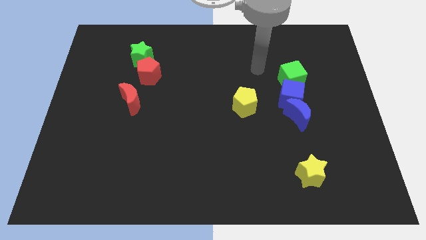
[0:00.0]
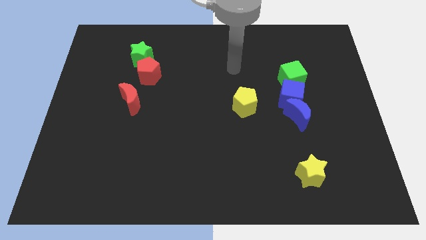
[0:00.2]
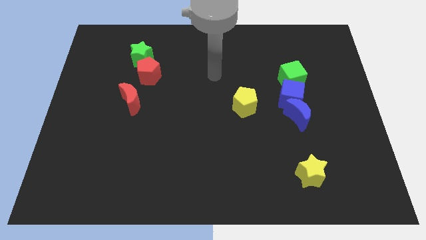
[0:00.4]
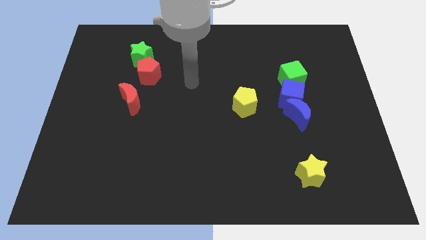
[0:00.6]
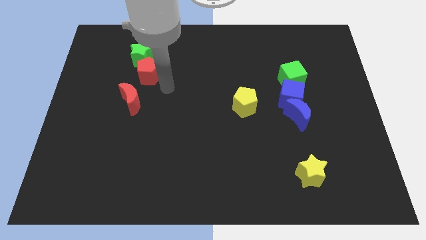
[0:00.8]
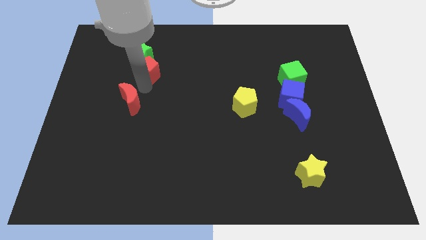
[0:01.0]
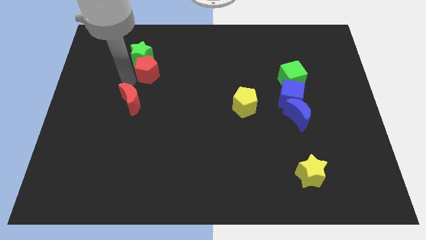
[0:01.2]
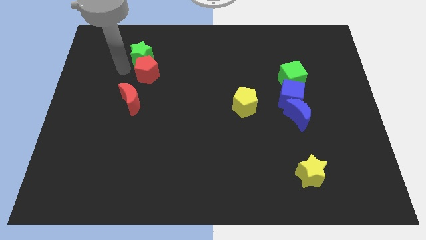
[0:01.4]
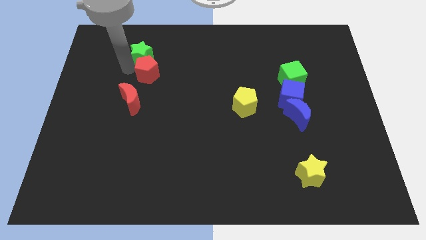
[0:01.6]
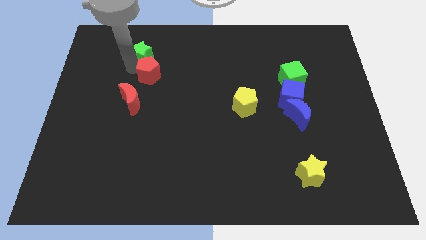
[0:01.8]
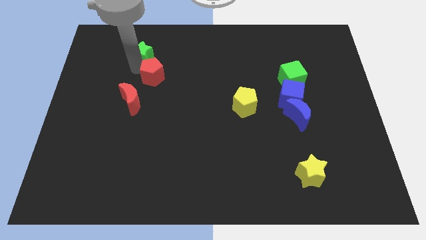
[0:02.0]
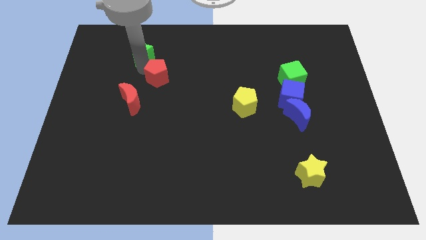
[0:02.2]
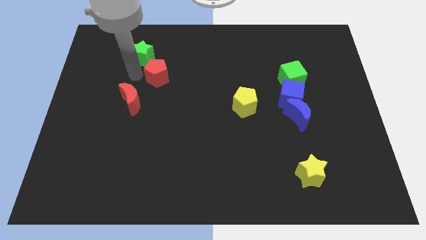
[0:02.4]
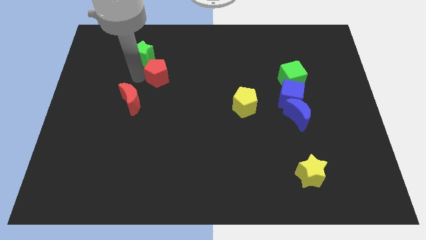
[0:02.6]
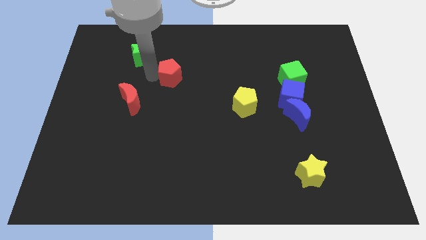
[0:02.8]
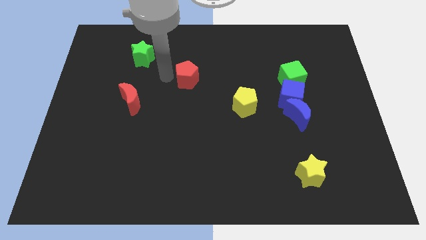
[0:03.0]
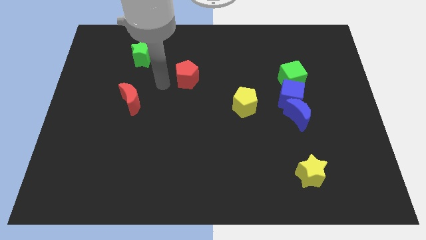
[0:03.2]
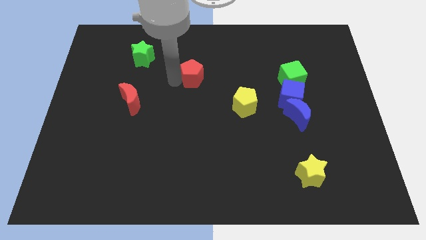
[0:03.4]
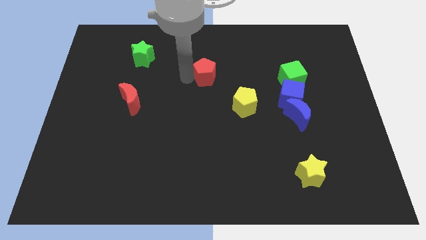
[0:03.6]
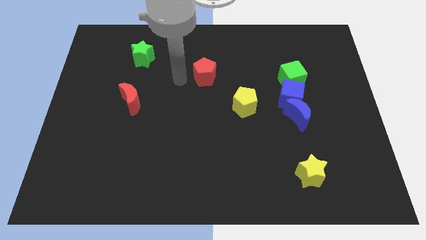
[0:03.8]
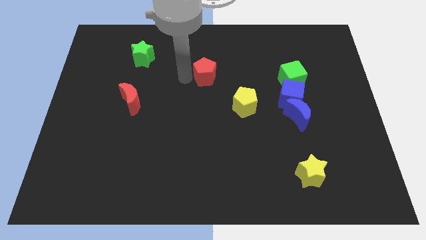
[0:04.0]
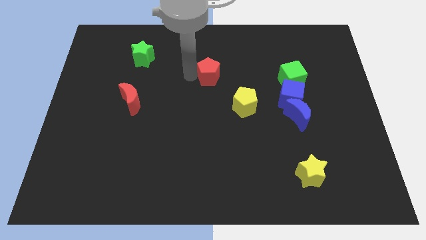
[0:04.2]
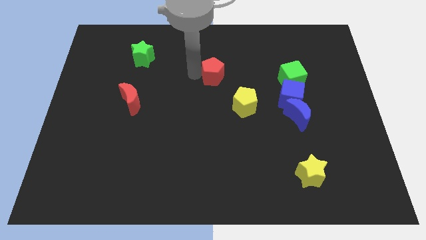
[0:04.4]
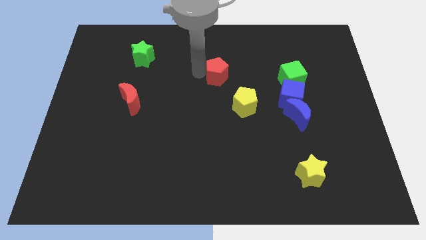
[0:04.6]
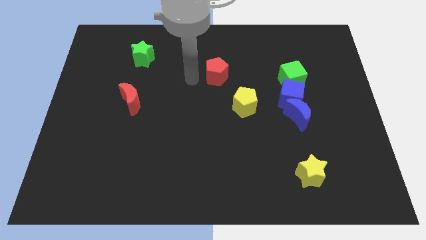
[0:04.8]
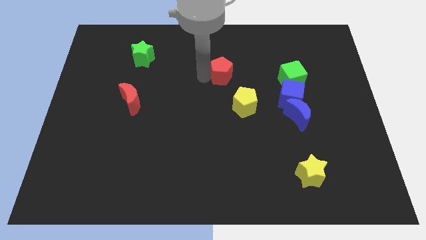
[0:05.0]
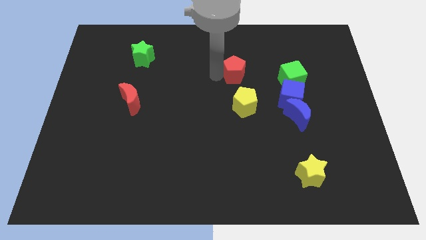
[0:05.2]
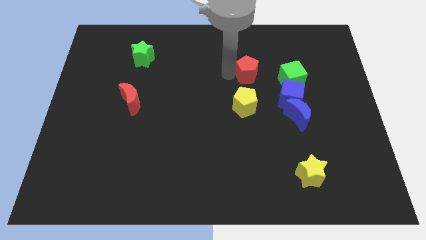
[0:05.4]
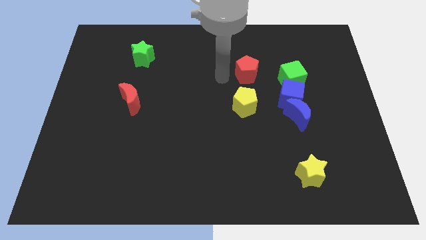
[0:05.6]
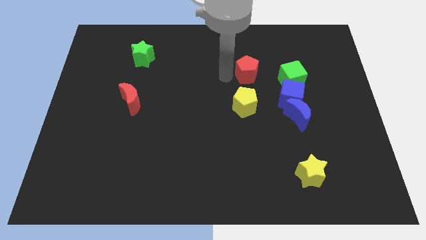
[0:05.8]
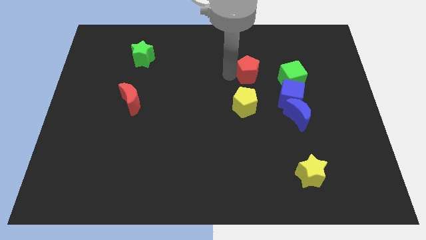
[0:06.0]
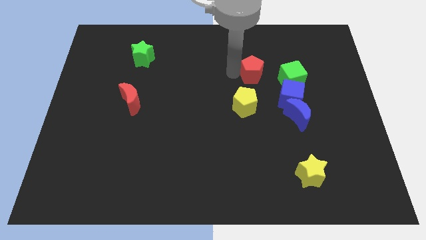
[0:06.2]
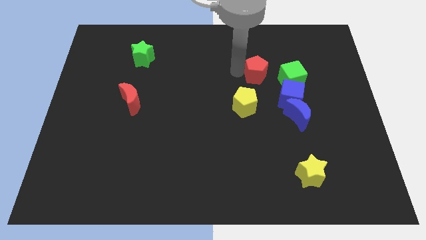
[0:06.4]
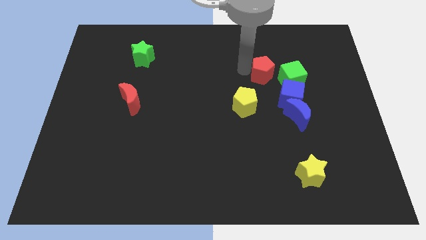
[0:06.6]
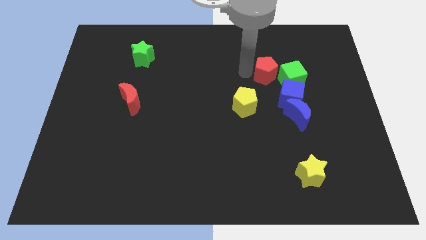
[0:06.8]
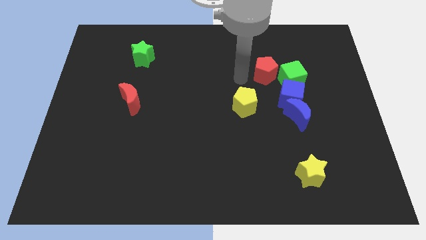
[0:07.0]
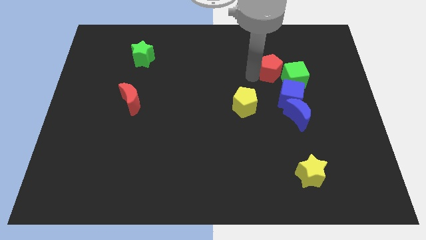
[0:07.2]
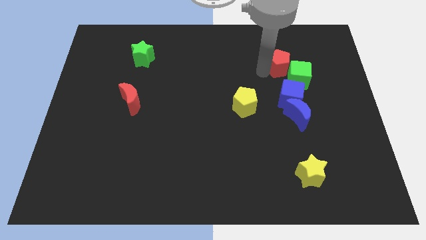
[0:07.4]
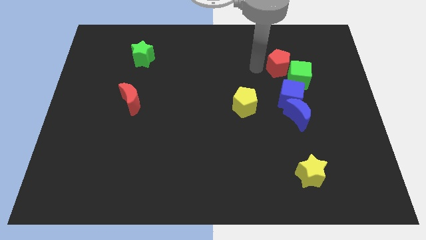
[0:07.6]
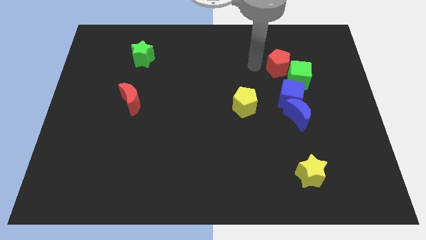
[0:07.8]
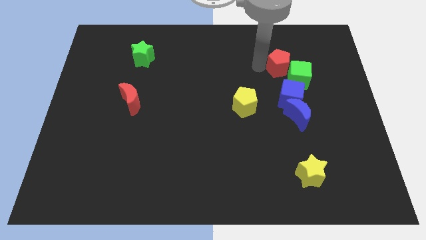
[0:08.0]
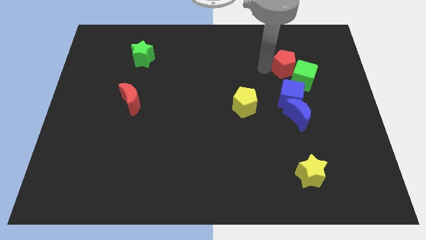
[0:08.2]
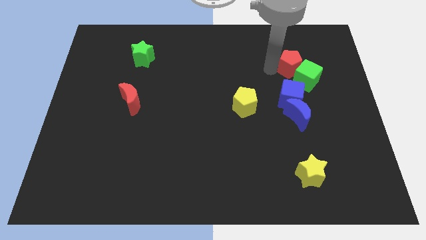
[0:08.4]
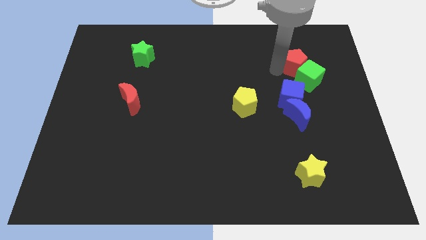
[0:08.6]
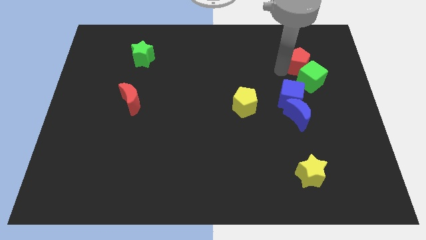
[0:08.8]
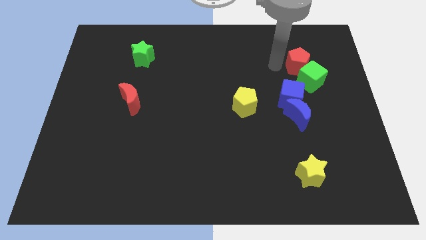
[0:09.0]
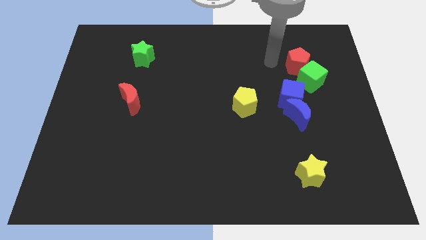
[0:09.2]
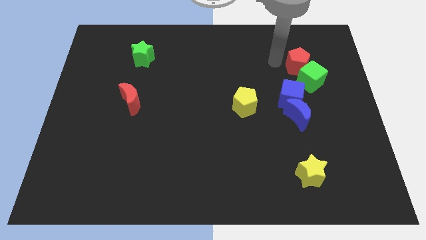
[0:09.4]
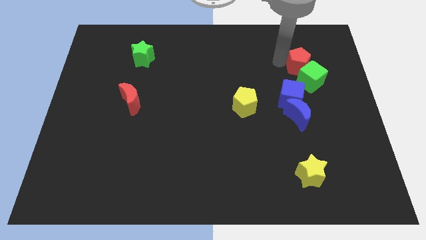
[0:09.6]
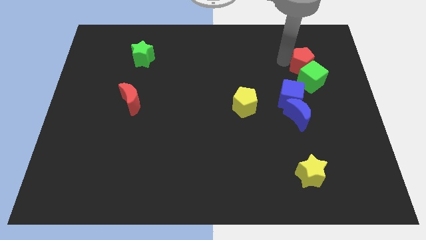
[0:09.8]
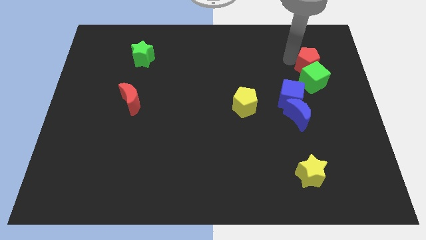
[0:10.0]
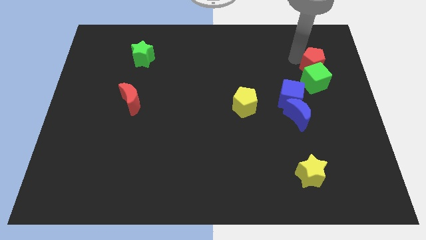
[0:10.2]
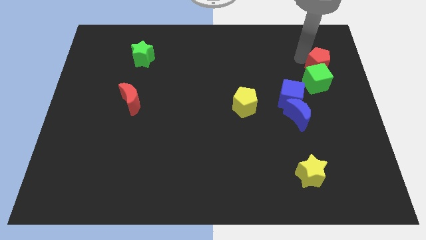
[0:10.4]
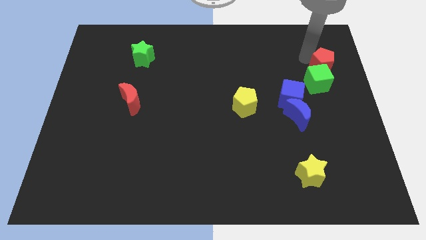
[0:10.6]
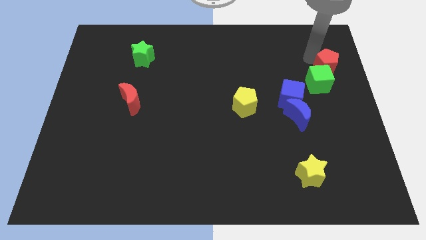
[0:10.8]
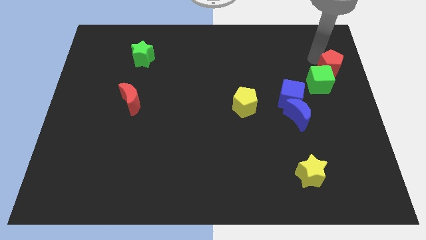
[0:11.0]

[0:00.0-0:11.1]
push the red pentagon to the right side of the board

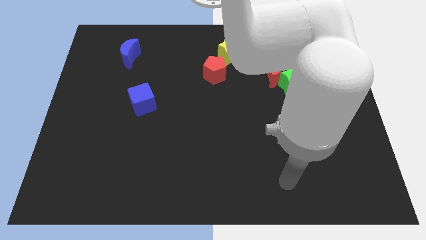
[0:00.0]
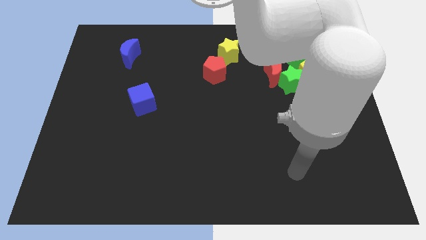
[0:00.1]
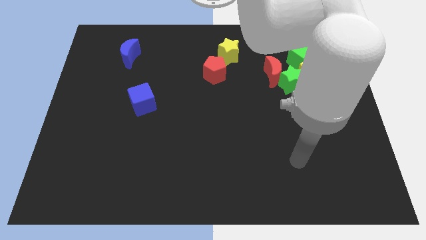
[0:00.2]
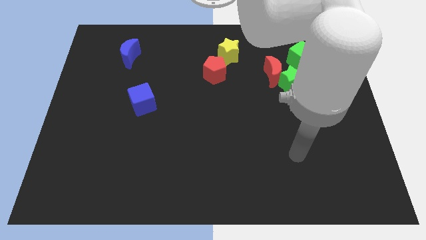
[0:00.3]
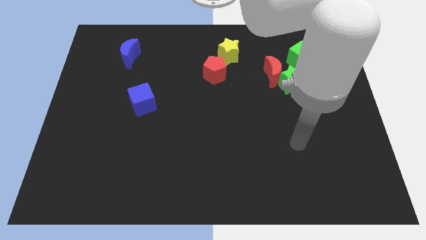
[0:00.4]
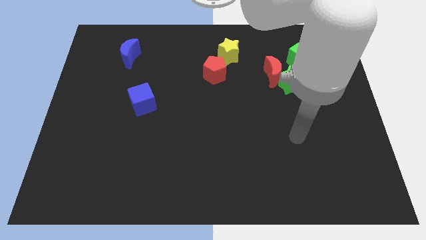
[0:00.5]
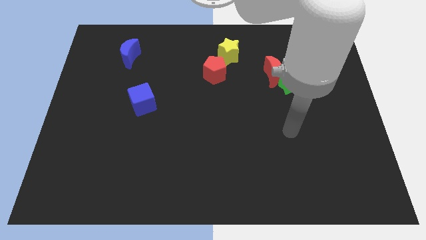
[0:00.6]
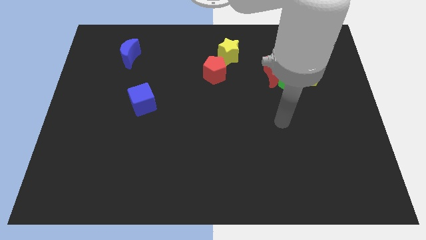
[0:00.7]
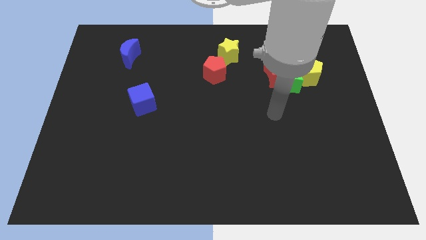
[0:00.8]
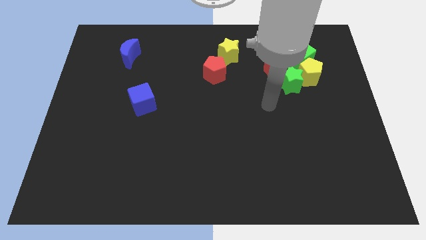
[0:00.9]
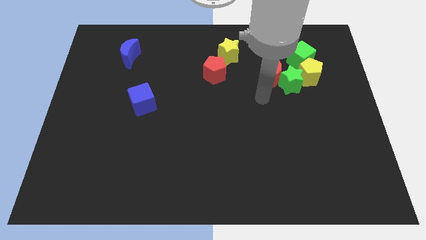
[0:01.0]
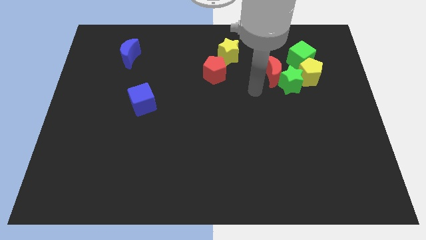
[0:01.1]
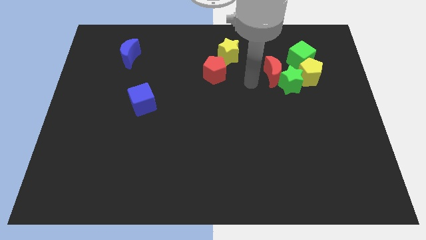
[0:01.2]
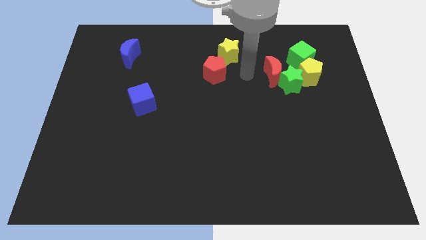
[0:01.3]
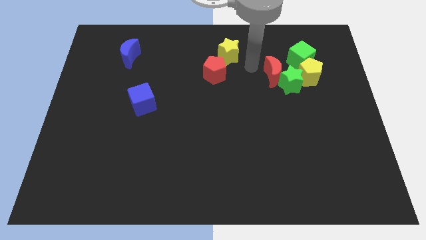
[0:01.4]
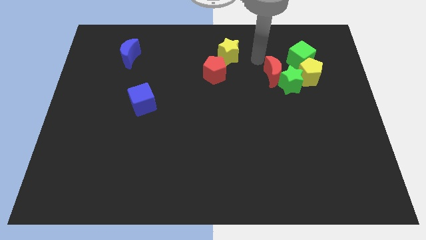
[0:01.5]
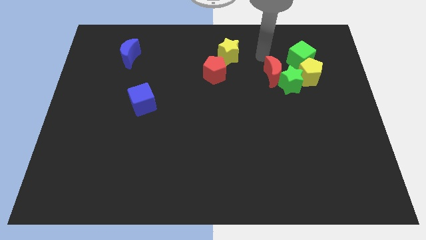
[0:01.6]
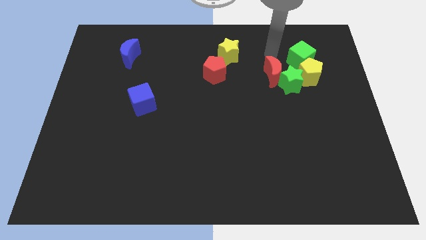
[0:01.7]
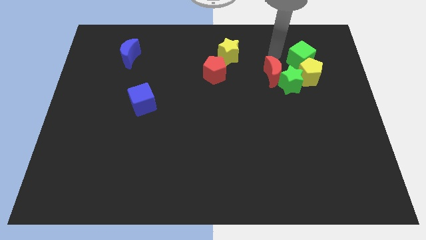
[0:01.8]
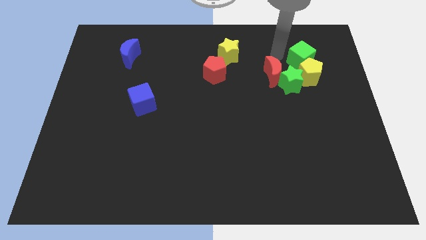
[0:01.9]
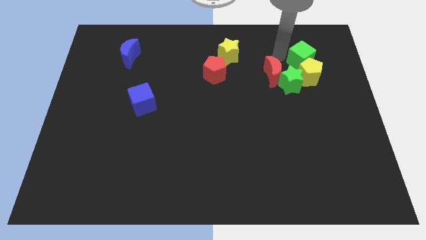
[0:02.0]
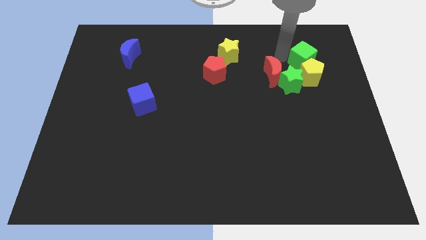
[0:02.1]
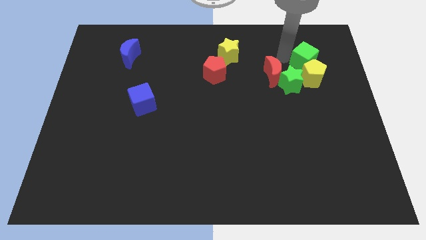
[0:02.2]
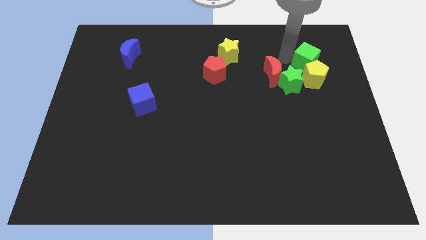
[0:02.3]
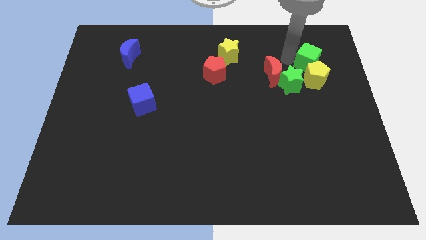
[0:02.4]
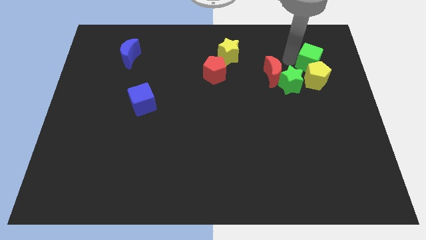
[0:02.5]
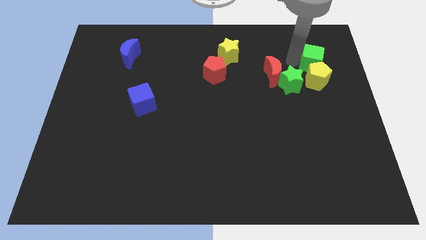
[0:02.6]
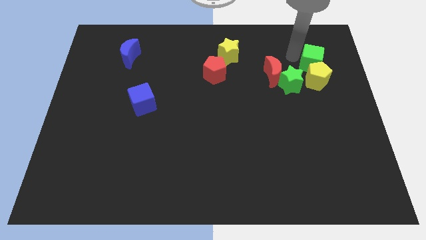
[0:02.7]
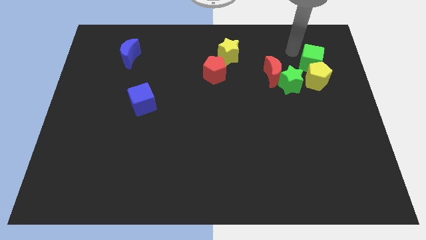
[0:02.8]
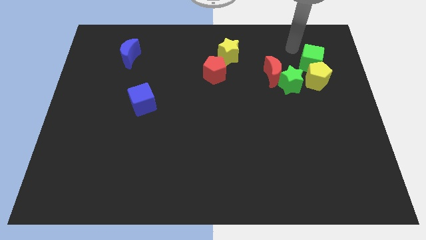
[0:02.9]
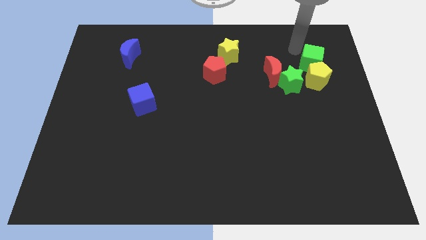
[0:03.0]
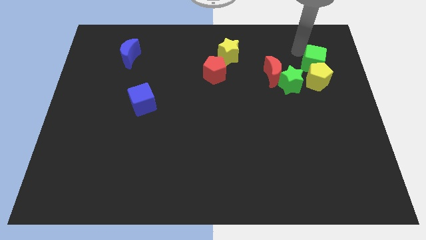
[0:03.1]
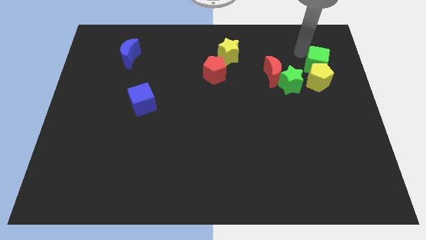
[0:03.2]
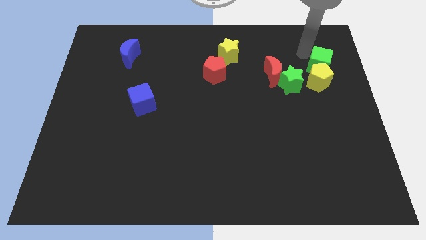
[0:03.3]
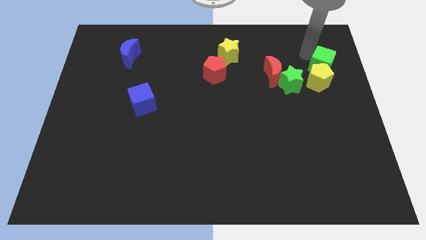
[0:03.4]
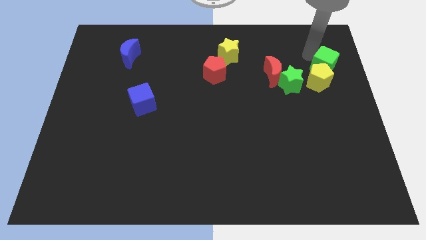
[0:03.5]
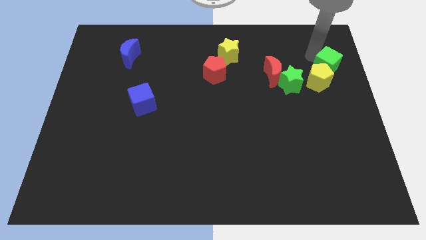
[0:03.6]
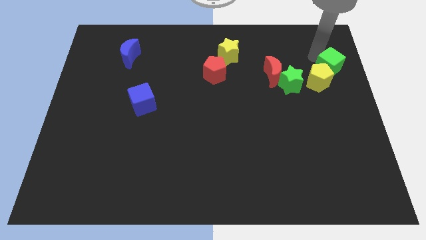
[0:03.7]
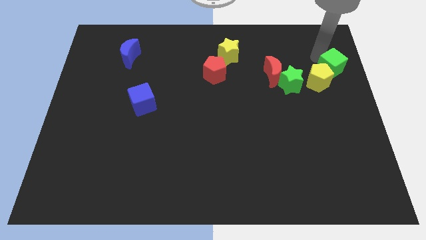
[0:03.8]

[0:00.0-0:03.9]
push the green cube to the right side of the board
